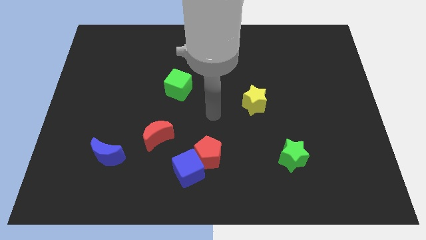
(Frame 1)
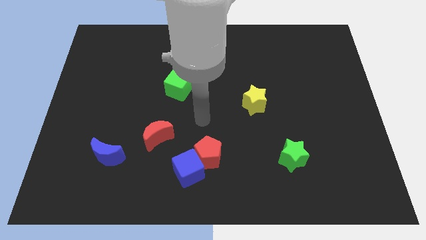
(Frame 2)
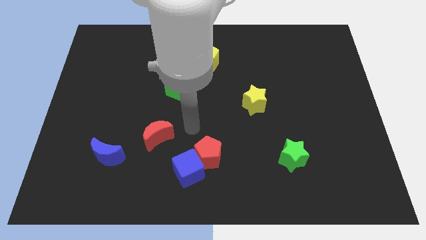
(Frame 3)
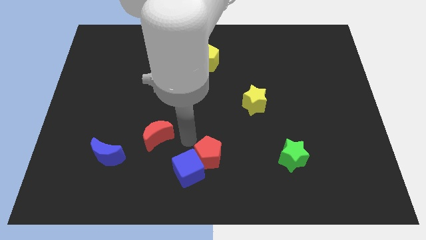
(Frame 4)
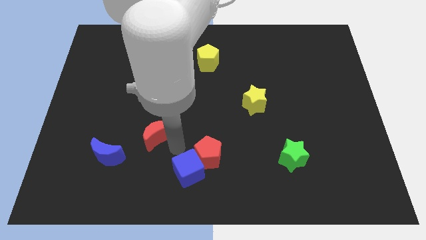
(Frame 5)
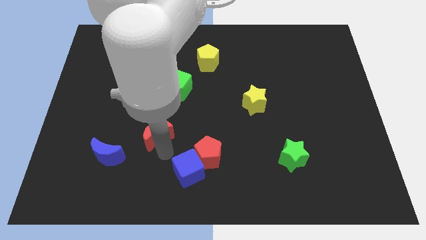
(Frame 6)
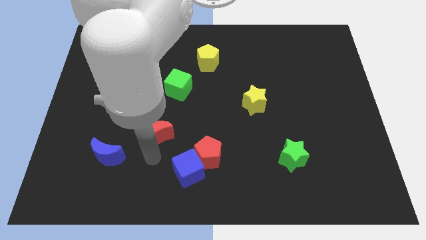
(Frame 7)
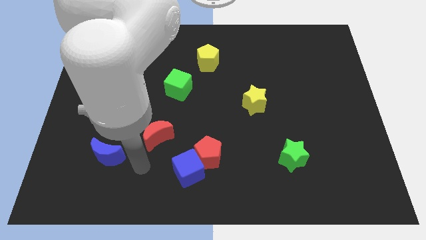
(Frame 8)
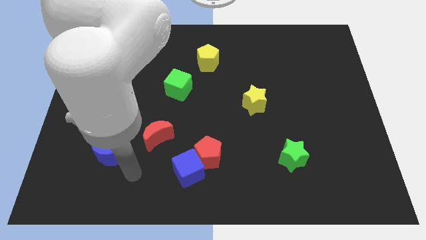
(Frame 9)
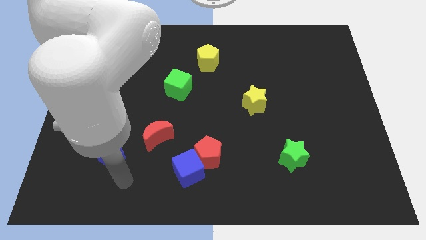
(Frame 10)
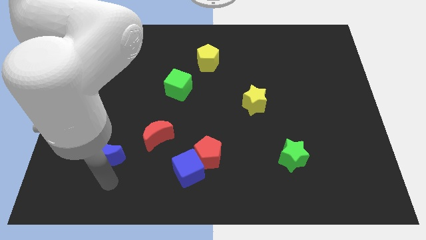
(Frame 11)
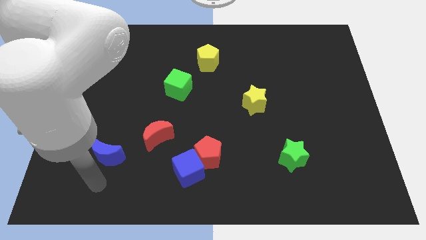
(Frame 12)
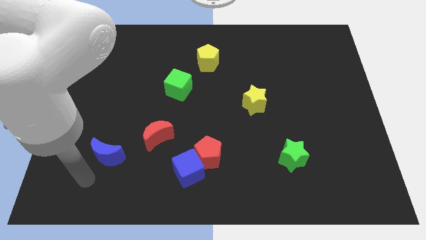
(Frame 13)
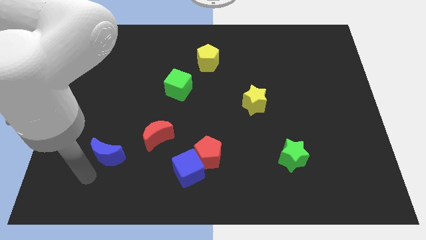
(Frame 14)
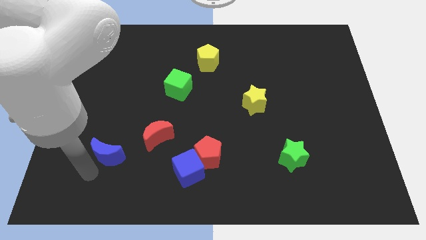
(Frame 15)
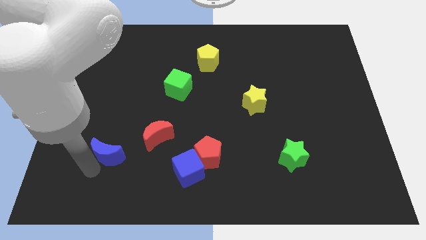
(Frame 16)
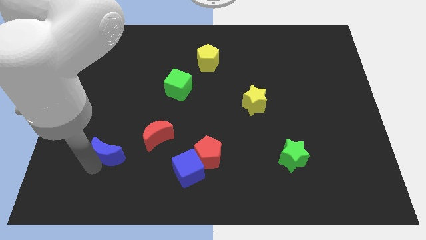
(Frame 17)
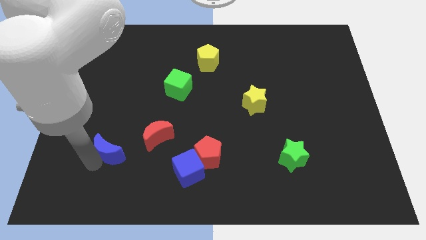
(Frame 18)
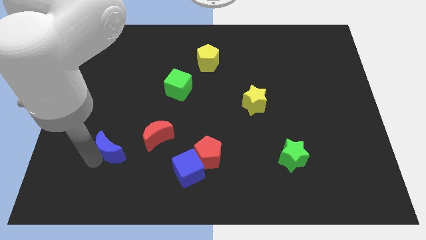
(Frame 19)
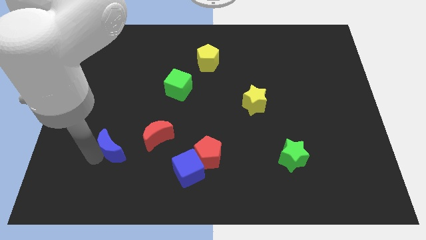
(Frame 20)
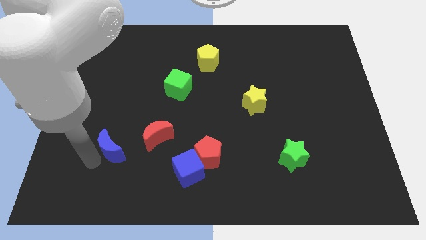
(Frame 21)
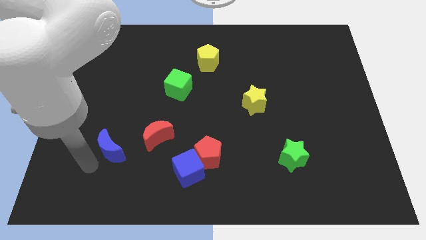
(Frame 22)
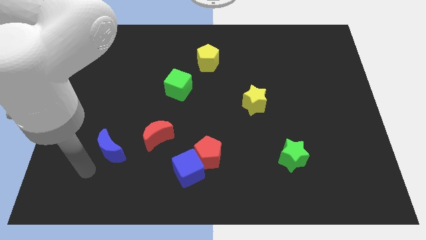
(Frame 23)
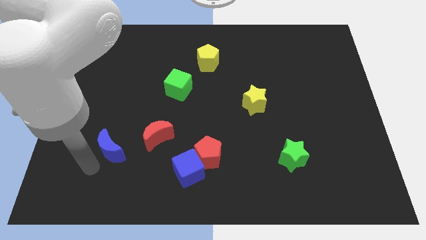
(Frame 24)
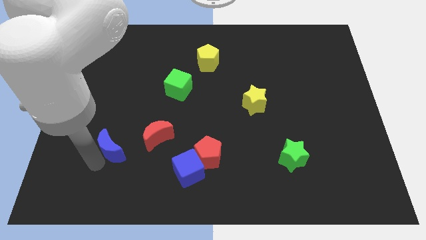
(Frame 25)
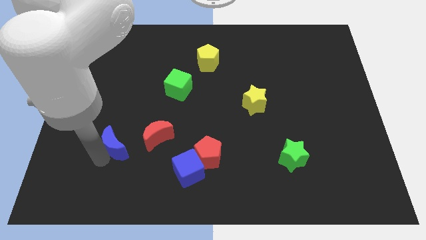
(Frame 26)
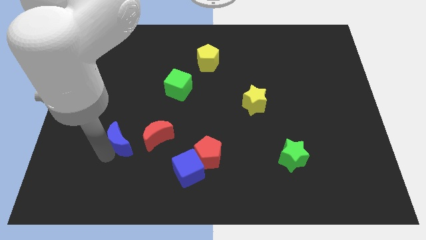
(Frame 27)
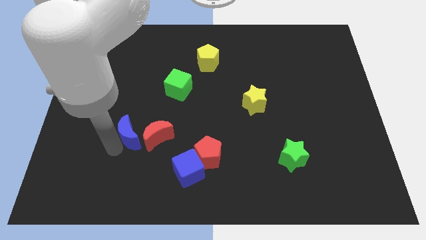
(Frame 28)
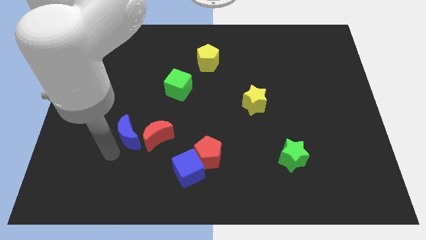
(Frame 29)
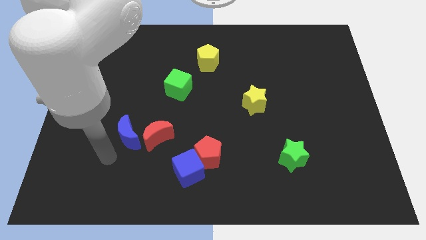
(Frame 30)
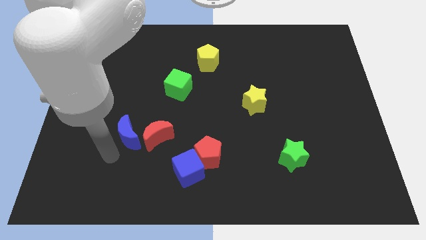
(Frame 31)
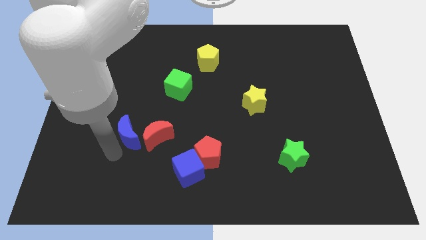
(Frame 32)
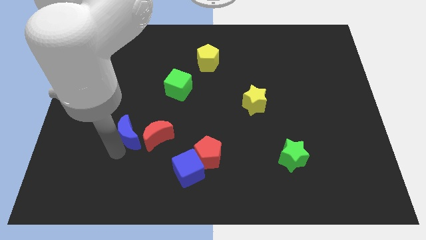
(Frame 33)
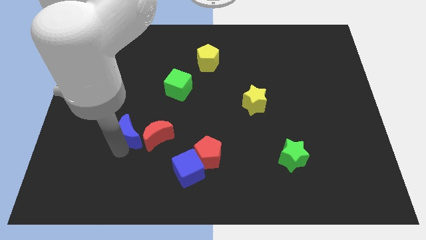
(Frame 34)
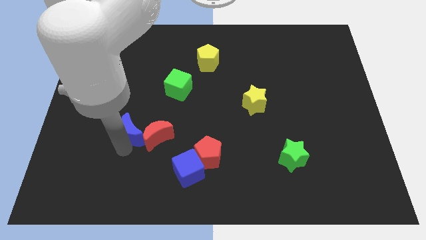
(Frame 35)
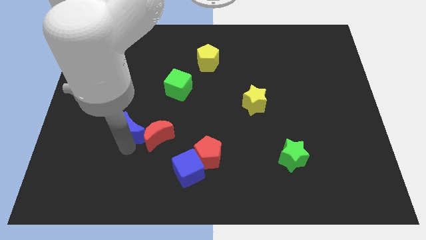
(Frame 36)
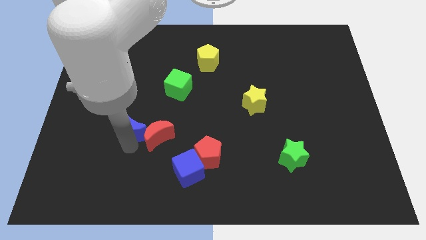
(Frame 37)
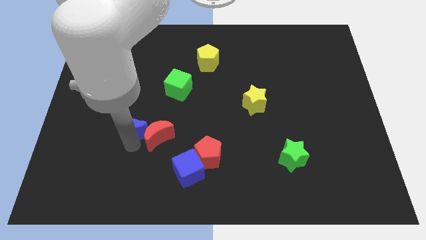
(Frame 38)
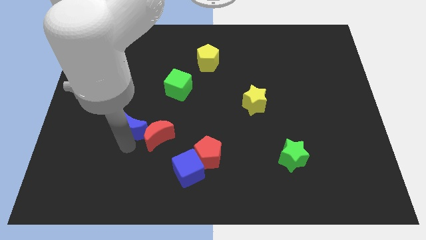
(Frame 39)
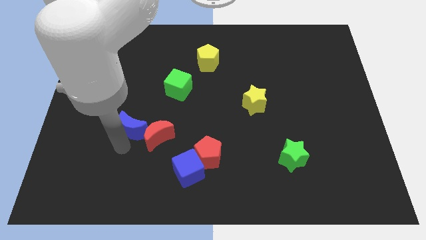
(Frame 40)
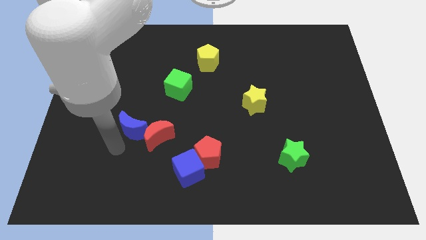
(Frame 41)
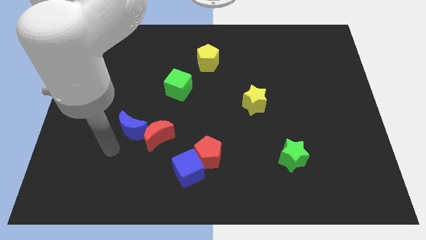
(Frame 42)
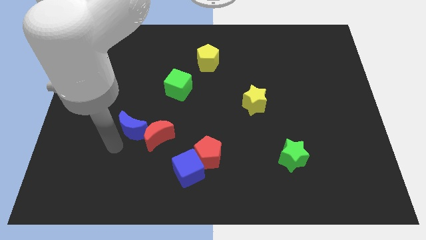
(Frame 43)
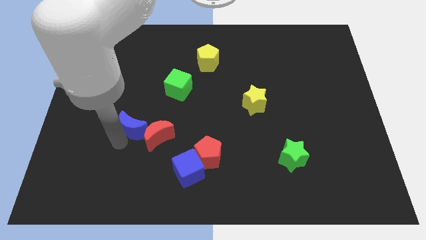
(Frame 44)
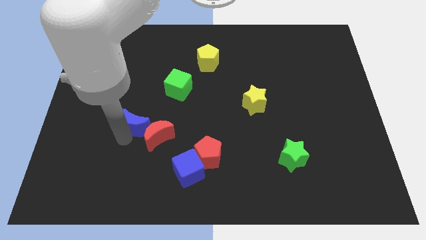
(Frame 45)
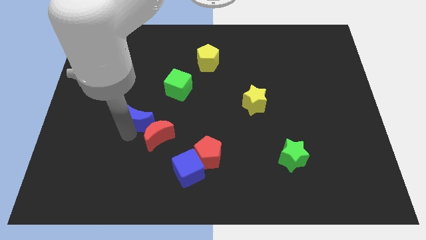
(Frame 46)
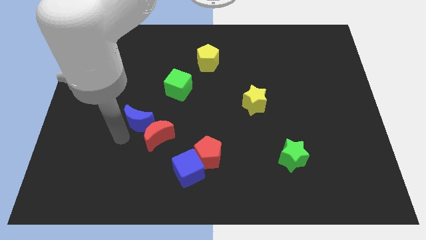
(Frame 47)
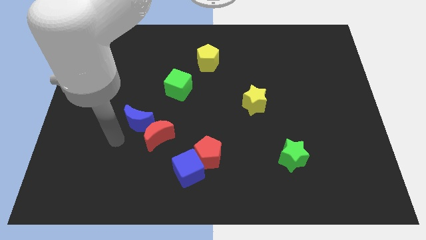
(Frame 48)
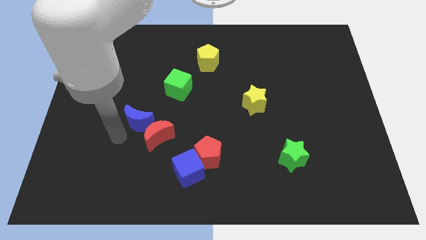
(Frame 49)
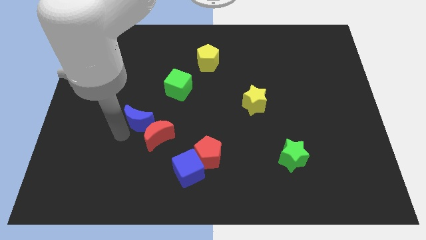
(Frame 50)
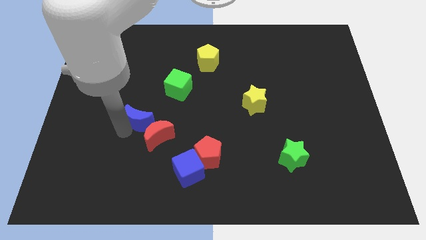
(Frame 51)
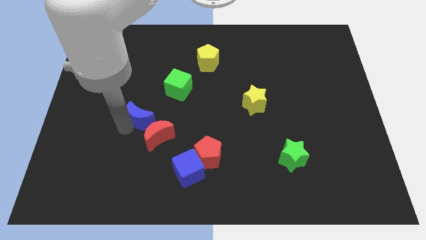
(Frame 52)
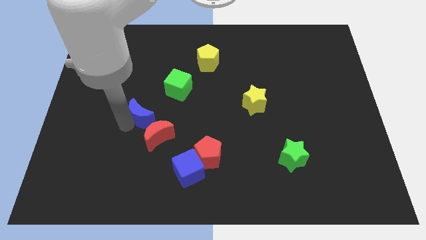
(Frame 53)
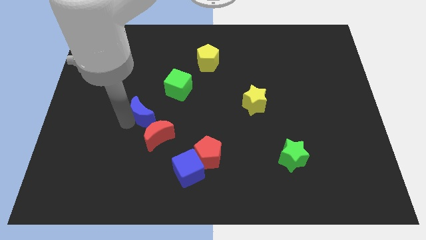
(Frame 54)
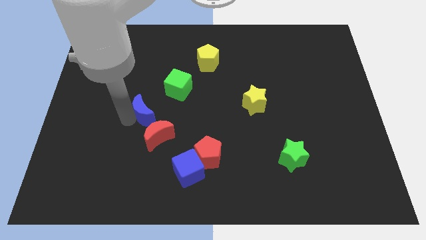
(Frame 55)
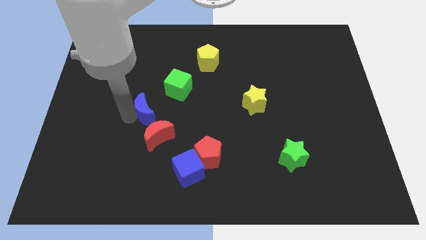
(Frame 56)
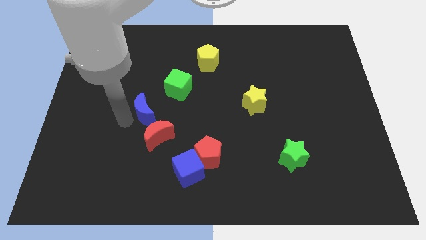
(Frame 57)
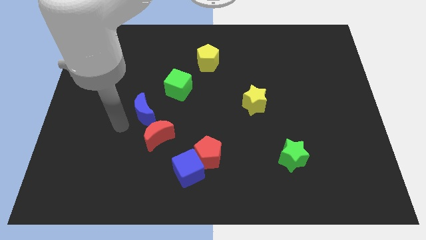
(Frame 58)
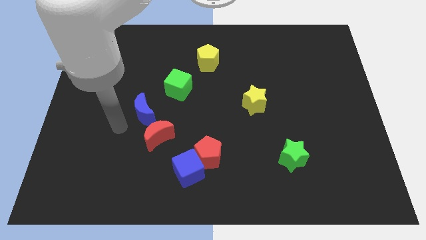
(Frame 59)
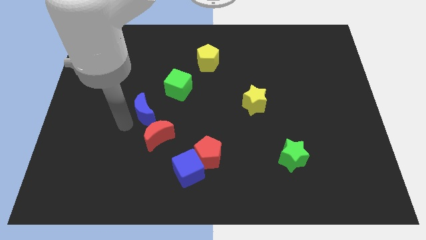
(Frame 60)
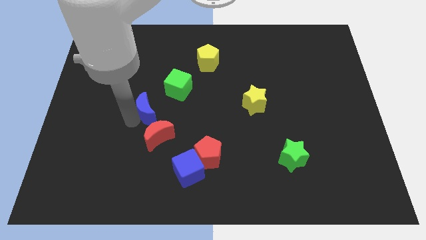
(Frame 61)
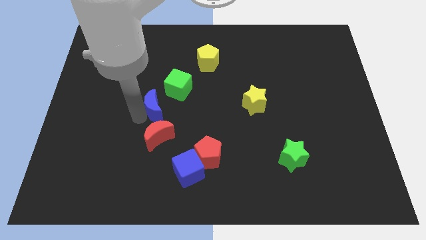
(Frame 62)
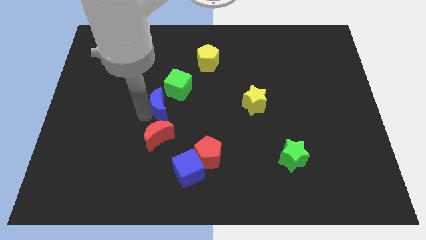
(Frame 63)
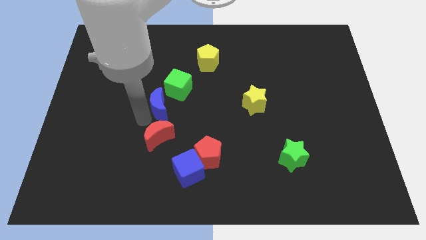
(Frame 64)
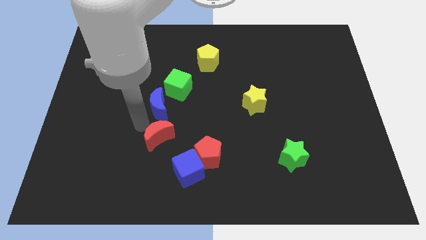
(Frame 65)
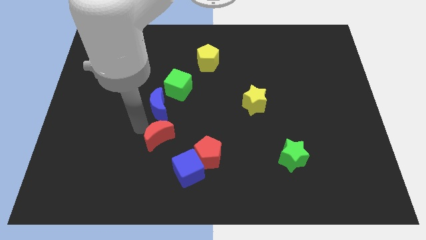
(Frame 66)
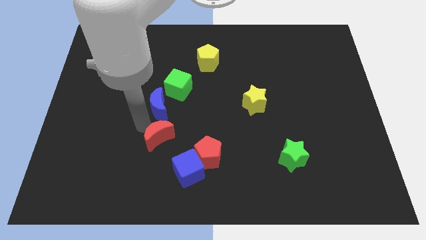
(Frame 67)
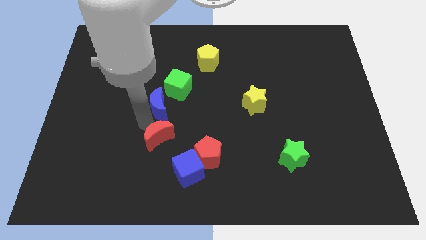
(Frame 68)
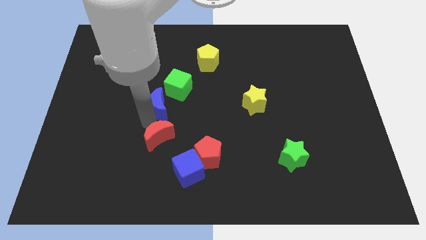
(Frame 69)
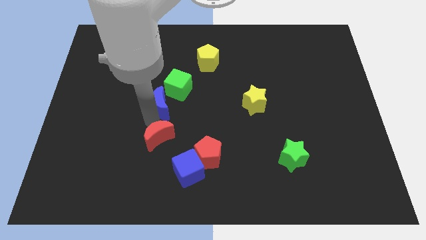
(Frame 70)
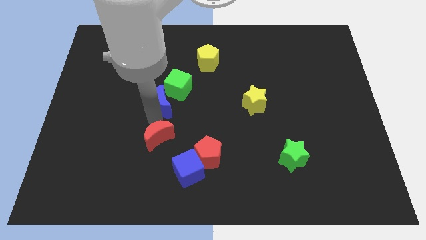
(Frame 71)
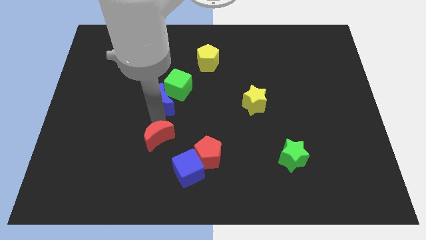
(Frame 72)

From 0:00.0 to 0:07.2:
push the blue moon to the green cube
